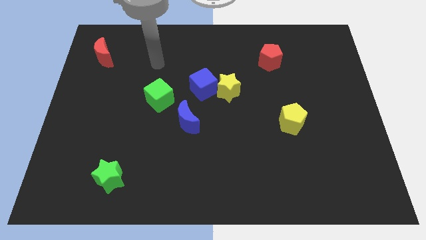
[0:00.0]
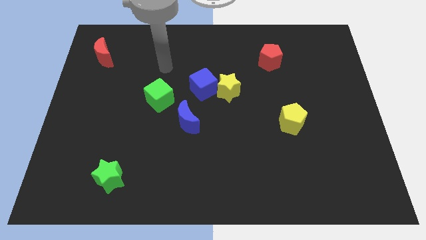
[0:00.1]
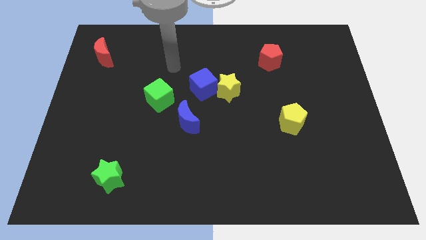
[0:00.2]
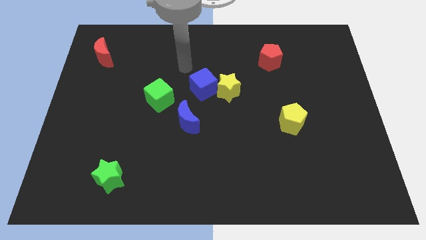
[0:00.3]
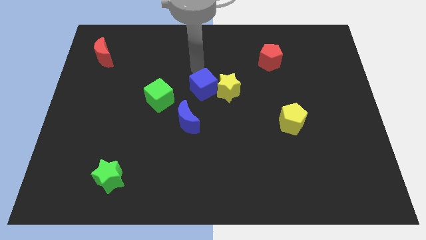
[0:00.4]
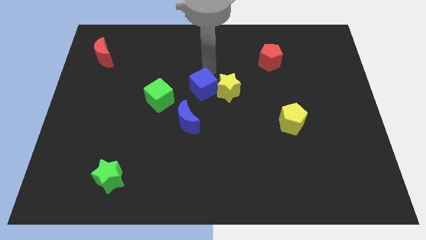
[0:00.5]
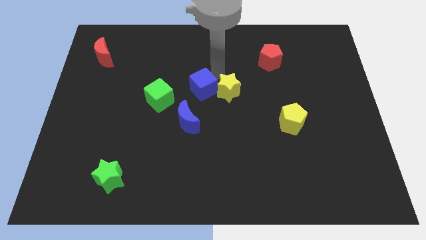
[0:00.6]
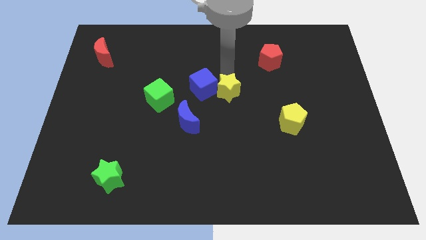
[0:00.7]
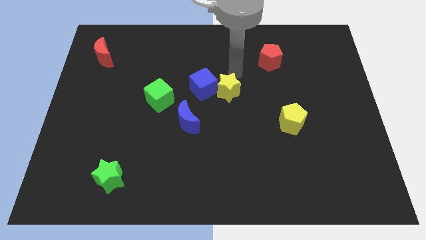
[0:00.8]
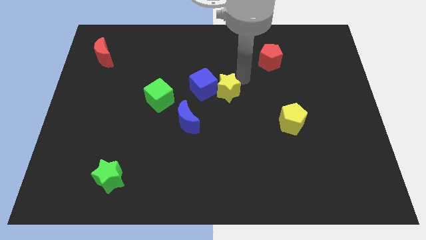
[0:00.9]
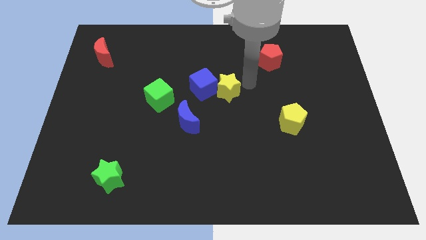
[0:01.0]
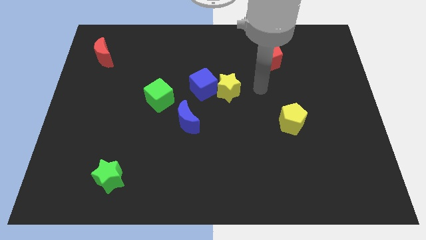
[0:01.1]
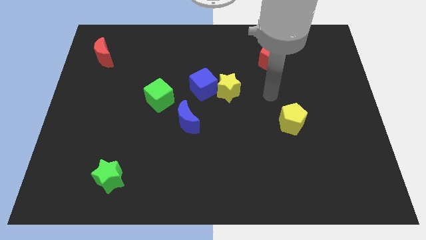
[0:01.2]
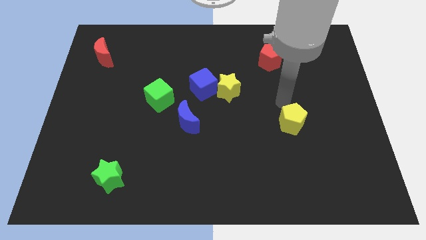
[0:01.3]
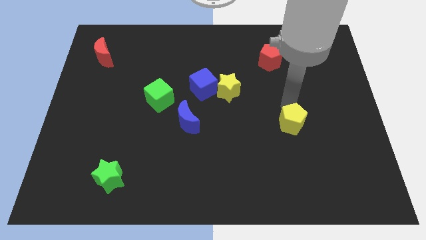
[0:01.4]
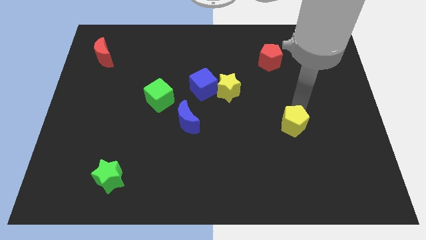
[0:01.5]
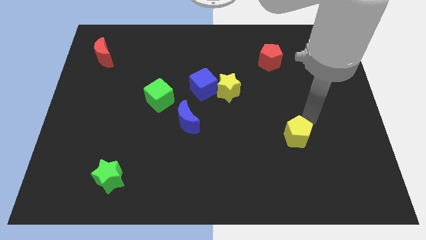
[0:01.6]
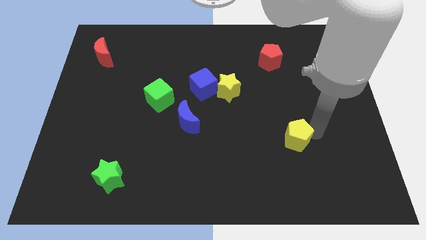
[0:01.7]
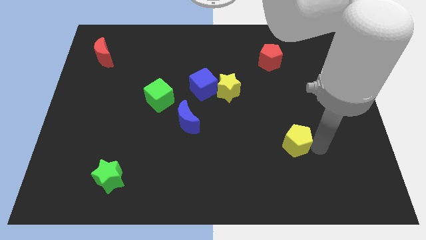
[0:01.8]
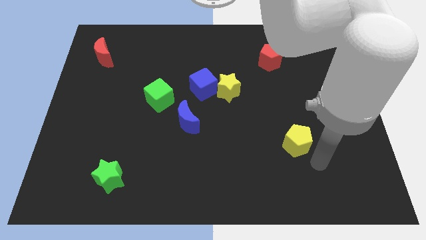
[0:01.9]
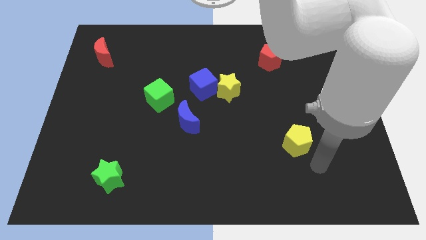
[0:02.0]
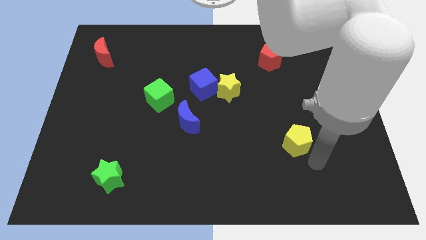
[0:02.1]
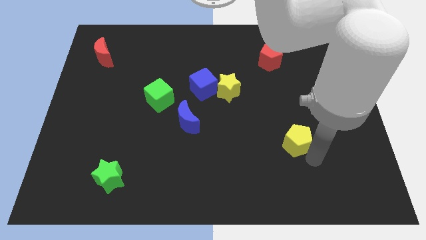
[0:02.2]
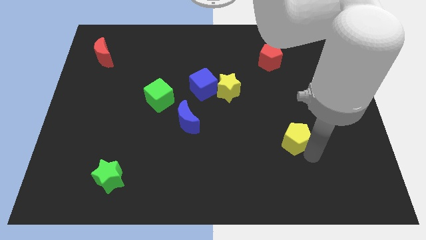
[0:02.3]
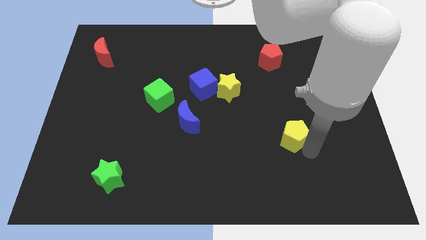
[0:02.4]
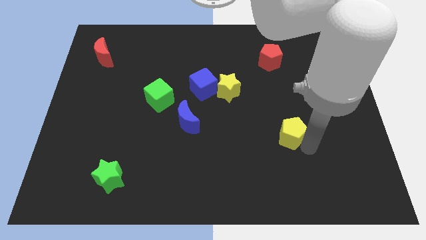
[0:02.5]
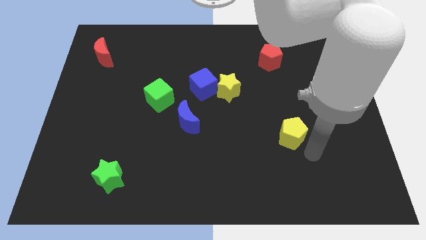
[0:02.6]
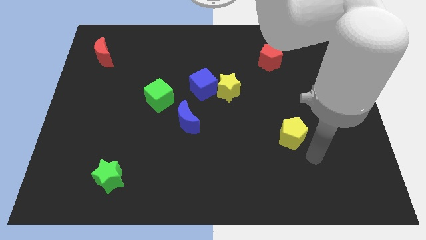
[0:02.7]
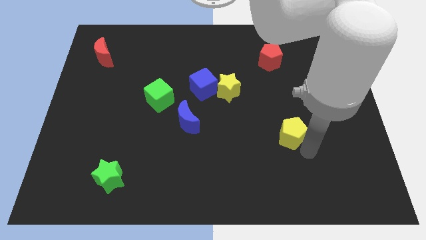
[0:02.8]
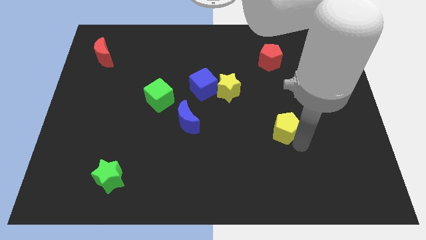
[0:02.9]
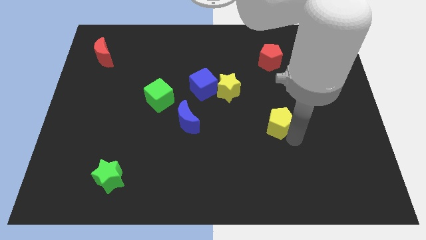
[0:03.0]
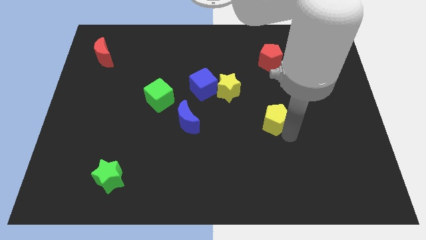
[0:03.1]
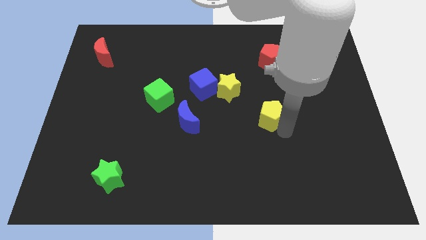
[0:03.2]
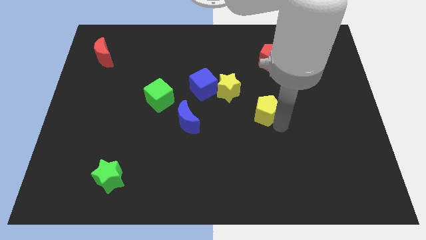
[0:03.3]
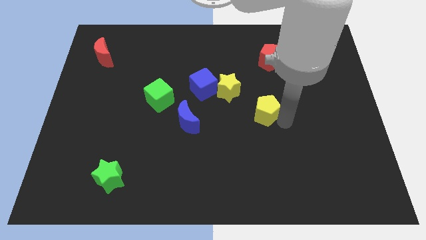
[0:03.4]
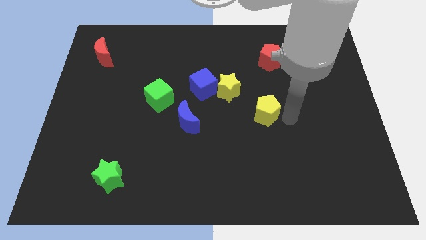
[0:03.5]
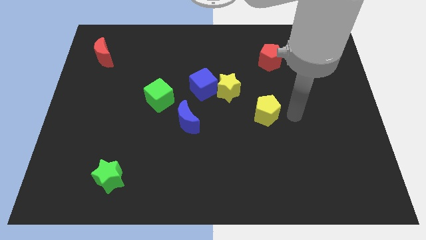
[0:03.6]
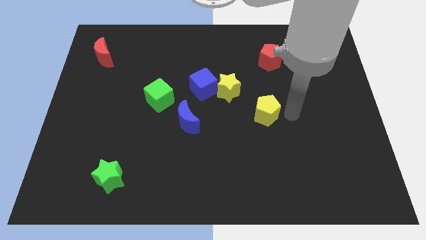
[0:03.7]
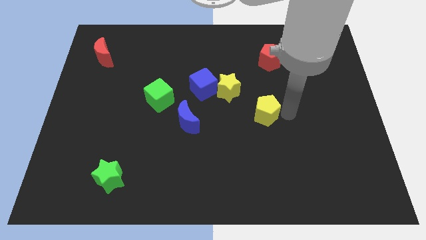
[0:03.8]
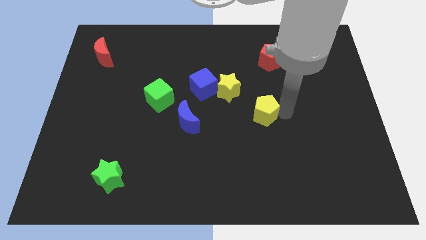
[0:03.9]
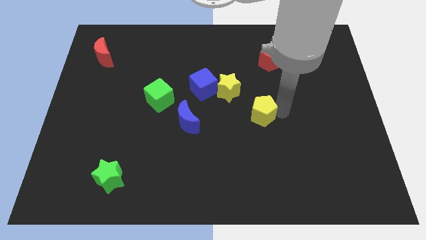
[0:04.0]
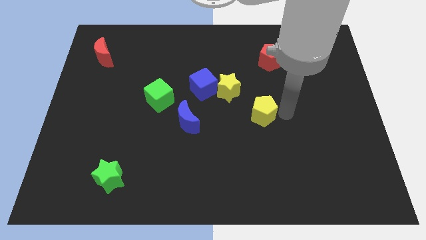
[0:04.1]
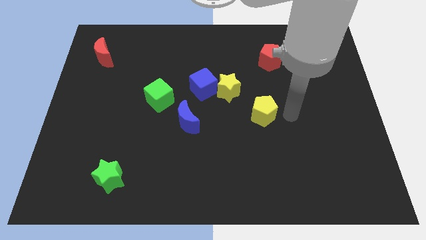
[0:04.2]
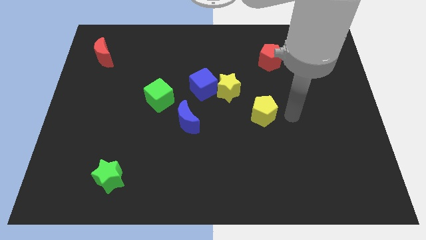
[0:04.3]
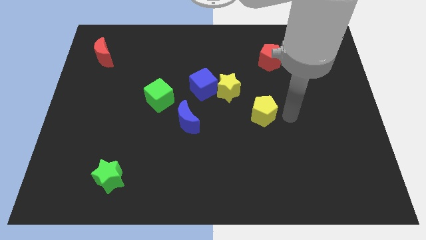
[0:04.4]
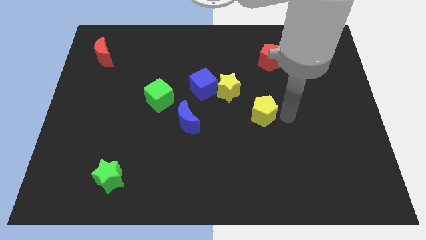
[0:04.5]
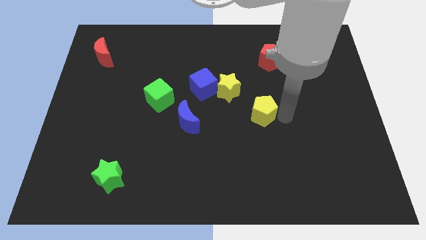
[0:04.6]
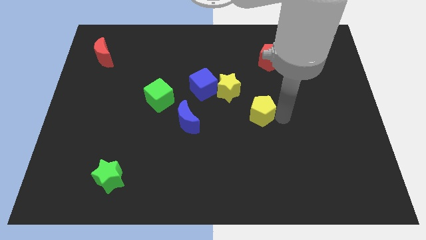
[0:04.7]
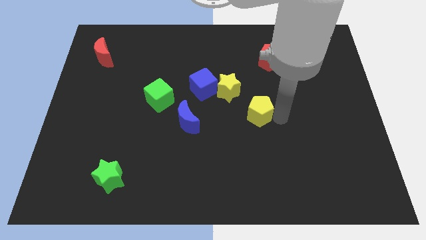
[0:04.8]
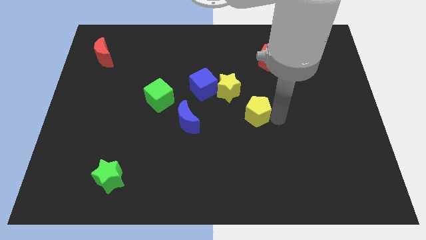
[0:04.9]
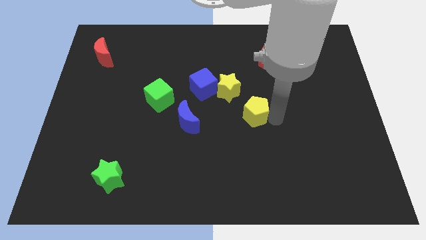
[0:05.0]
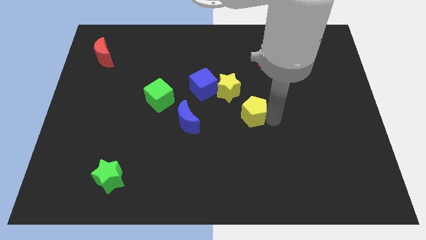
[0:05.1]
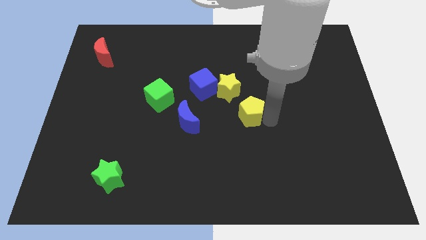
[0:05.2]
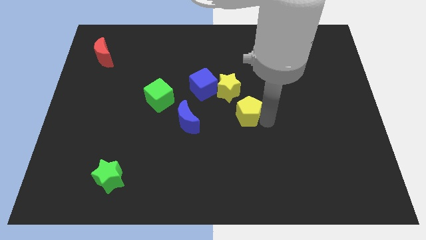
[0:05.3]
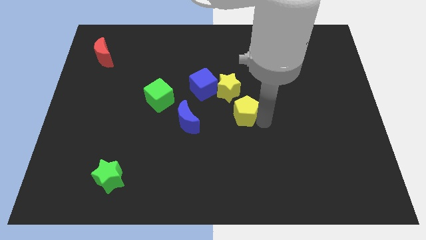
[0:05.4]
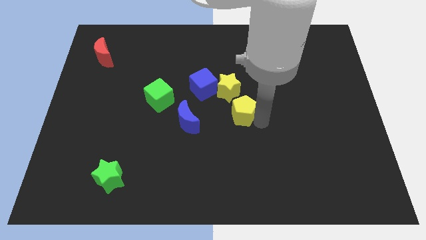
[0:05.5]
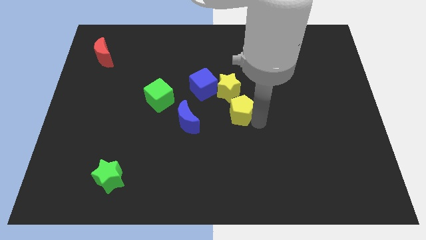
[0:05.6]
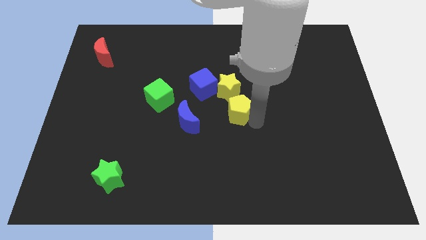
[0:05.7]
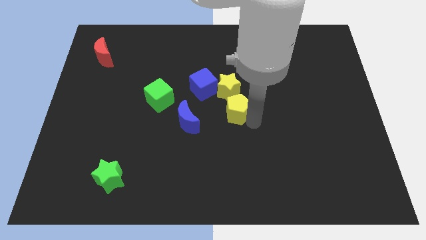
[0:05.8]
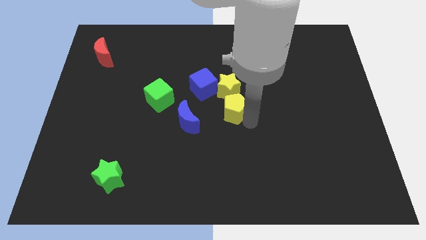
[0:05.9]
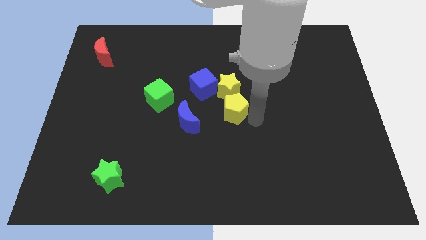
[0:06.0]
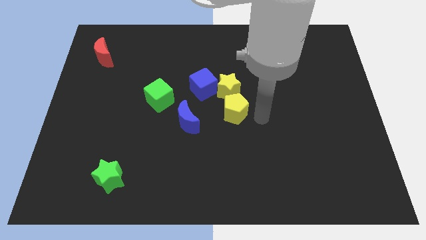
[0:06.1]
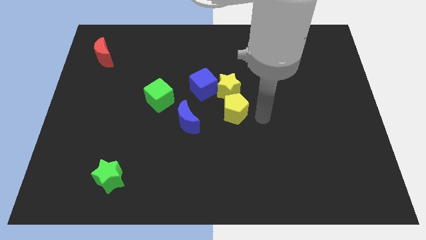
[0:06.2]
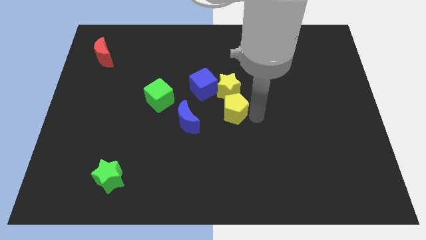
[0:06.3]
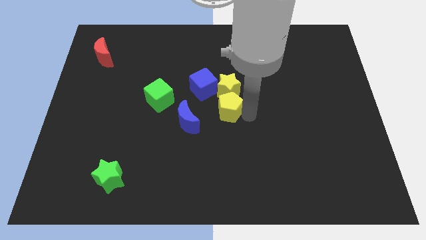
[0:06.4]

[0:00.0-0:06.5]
move the yellow pentagon diagonally down and to the left of the yellow star

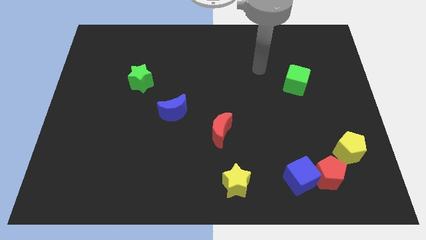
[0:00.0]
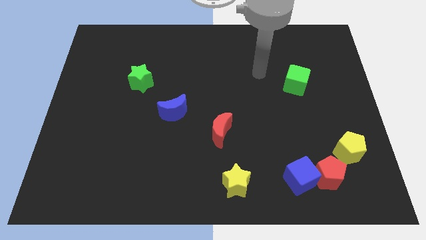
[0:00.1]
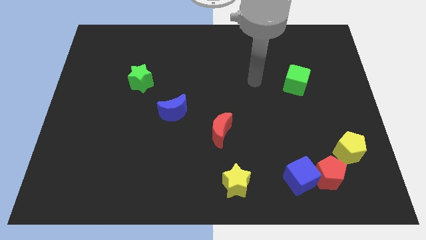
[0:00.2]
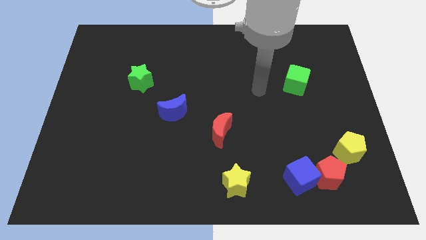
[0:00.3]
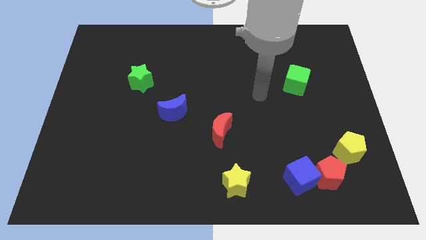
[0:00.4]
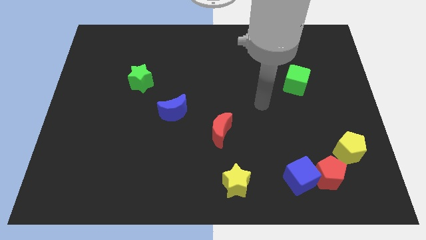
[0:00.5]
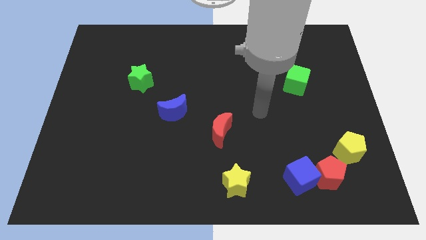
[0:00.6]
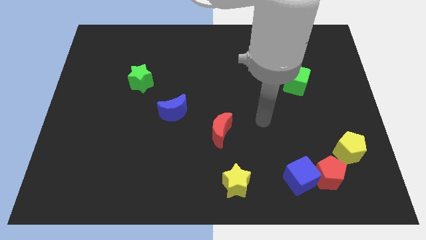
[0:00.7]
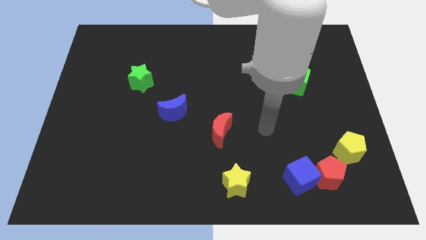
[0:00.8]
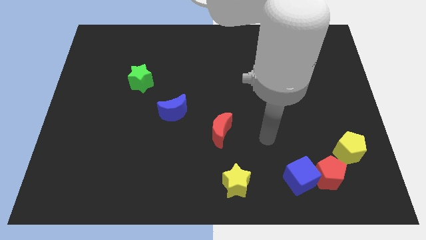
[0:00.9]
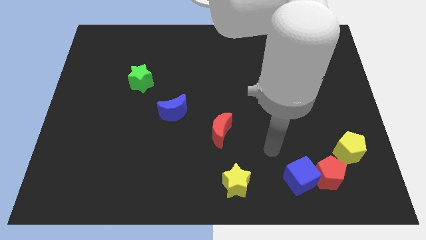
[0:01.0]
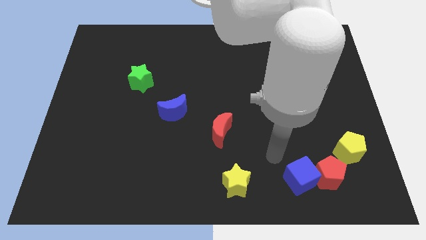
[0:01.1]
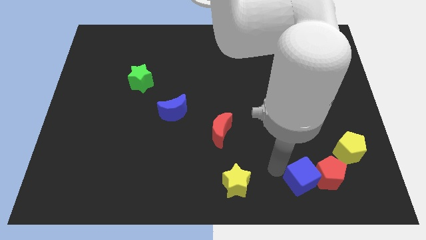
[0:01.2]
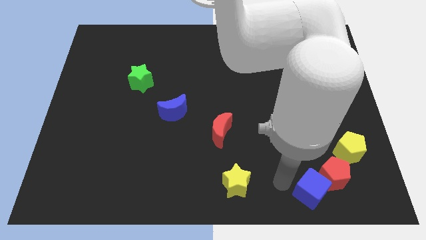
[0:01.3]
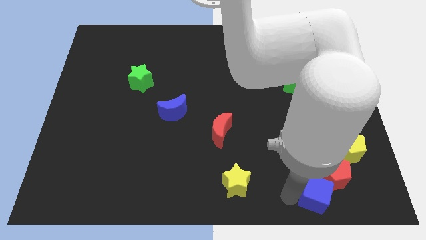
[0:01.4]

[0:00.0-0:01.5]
move the red pentagon to the top side of the blue cube
